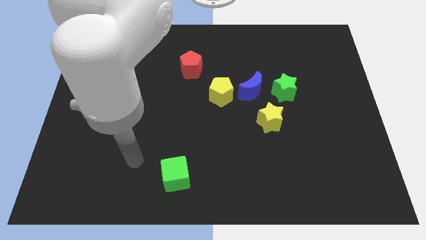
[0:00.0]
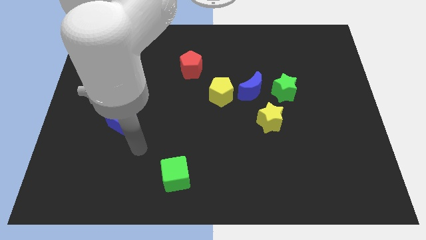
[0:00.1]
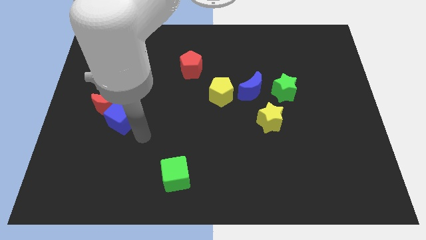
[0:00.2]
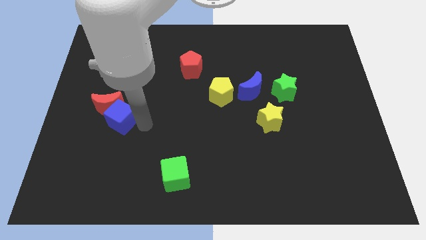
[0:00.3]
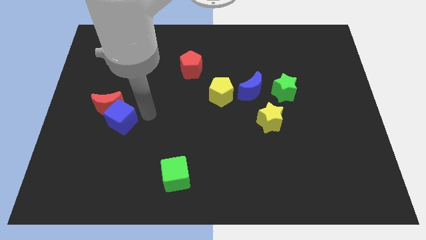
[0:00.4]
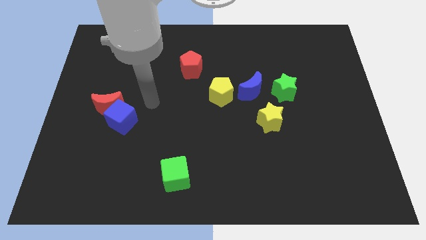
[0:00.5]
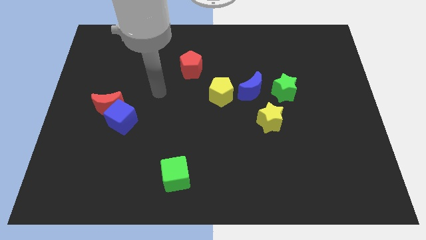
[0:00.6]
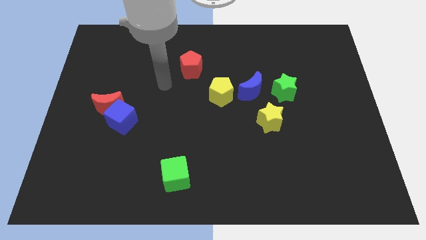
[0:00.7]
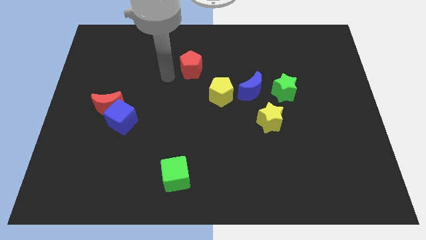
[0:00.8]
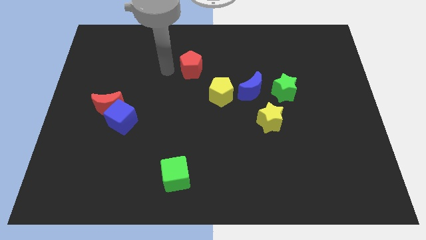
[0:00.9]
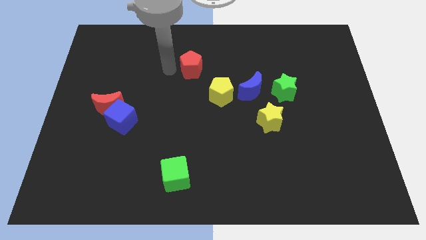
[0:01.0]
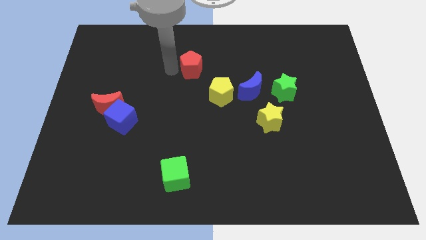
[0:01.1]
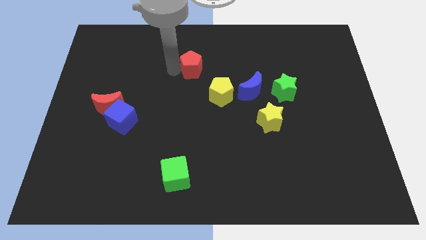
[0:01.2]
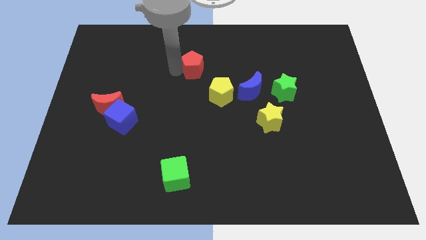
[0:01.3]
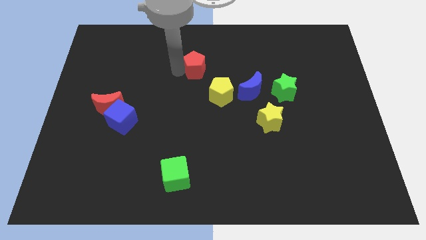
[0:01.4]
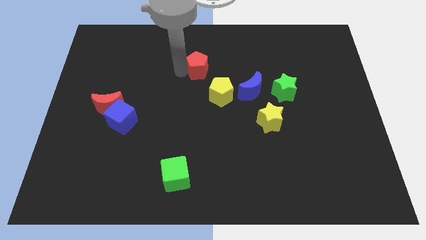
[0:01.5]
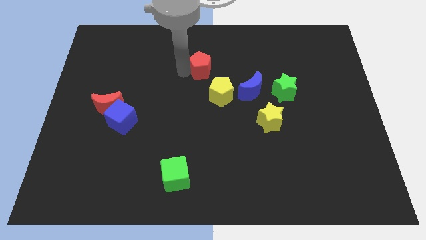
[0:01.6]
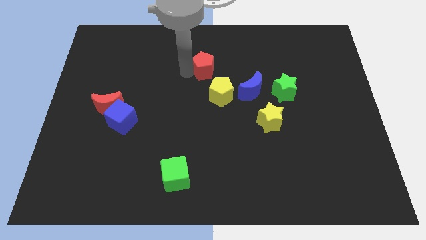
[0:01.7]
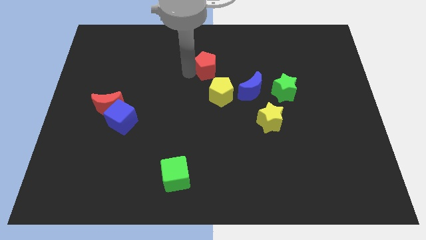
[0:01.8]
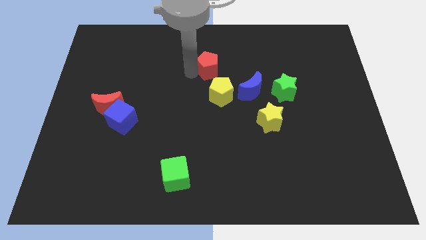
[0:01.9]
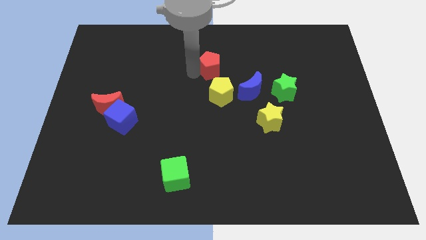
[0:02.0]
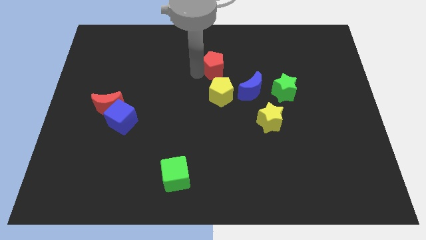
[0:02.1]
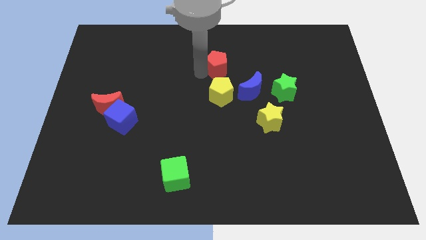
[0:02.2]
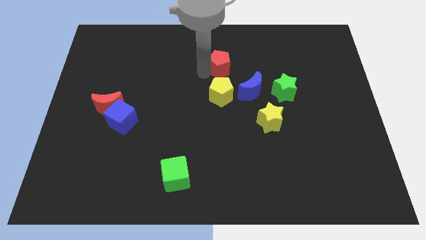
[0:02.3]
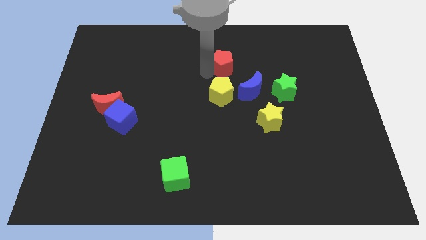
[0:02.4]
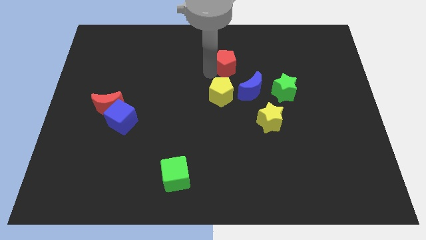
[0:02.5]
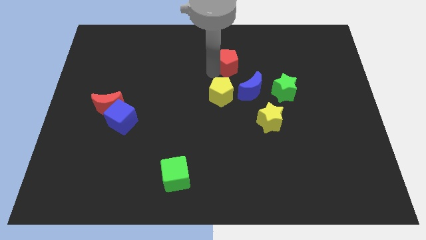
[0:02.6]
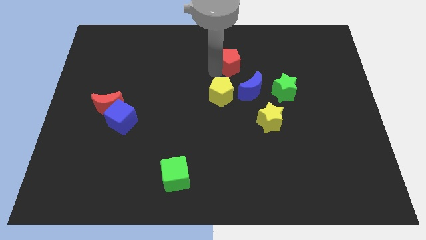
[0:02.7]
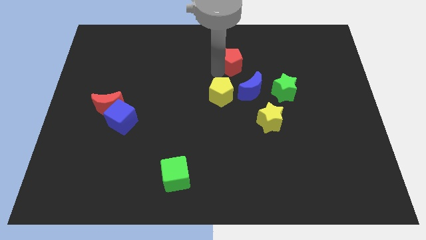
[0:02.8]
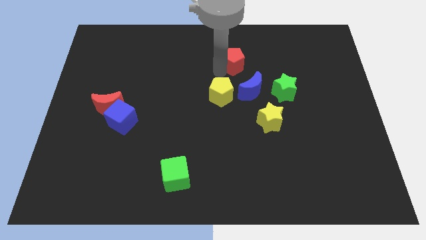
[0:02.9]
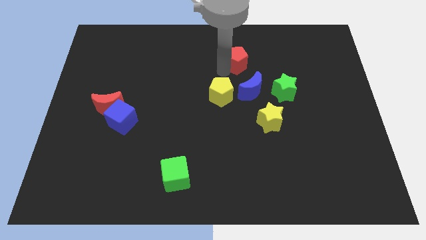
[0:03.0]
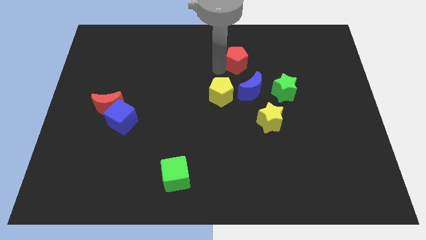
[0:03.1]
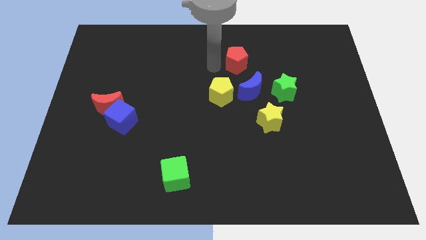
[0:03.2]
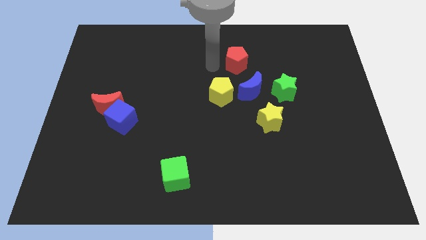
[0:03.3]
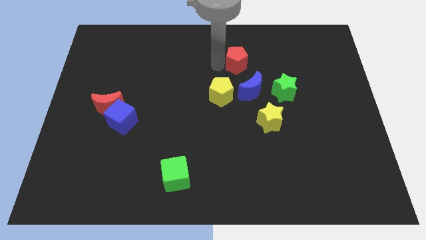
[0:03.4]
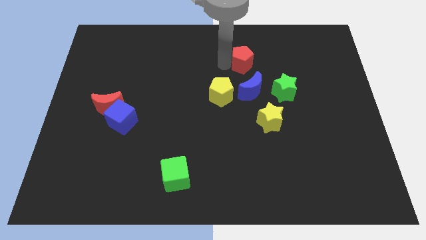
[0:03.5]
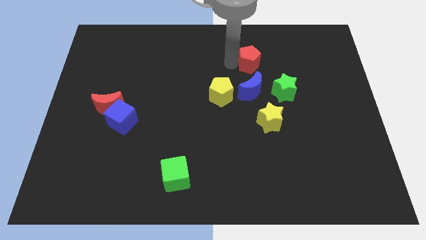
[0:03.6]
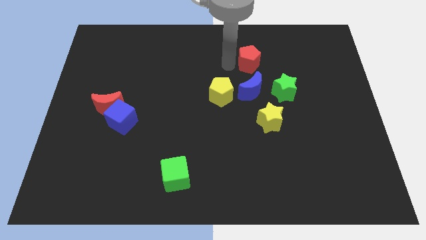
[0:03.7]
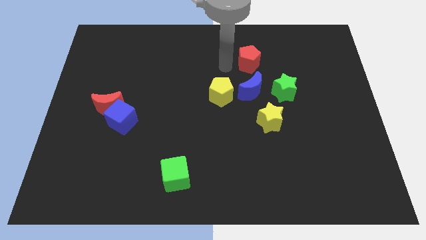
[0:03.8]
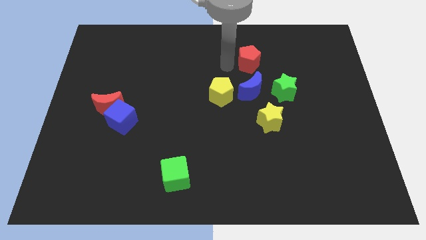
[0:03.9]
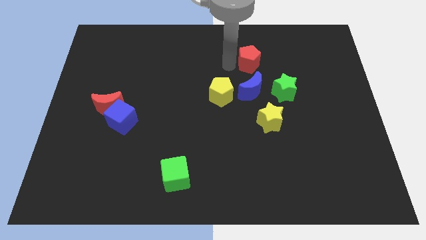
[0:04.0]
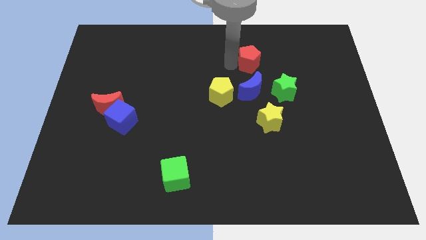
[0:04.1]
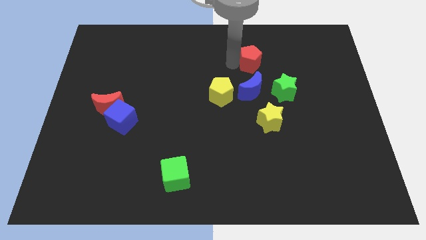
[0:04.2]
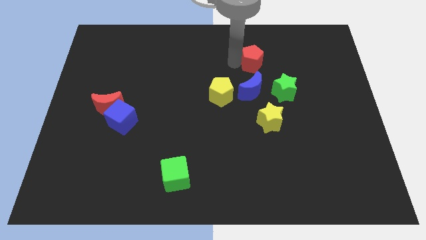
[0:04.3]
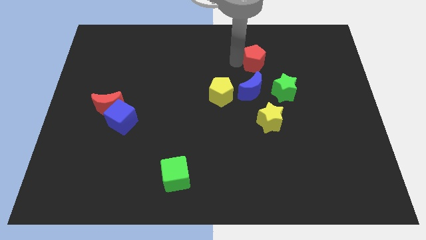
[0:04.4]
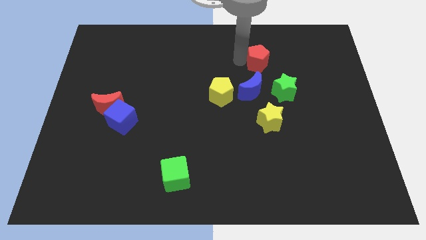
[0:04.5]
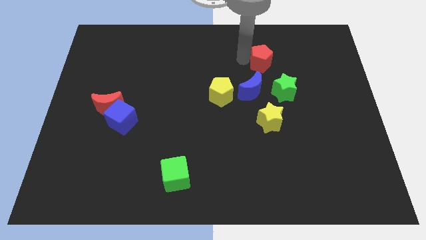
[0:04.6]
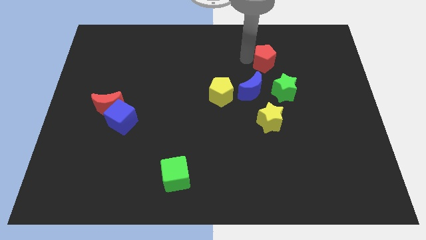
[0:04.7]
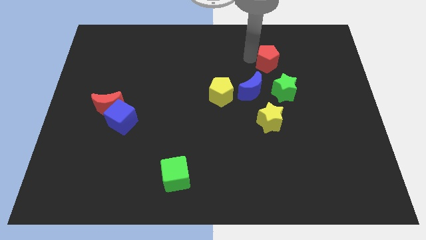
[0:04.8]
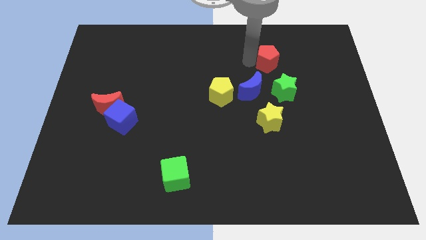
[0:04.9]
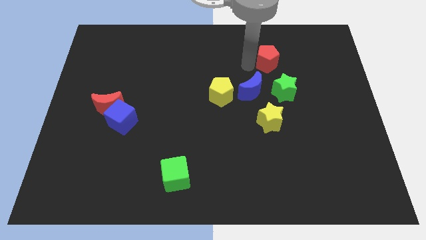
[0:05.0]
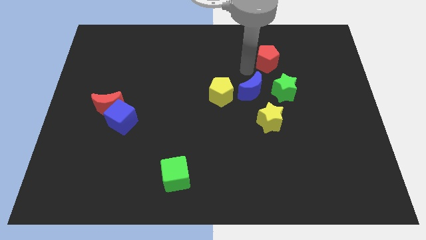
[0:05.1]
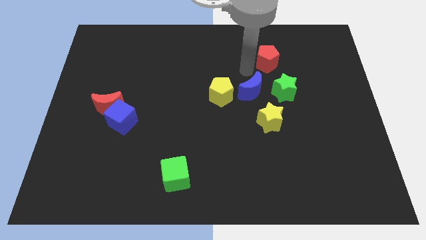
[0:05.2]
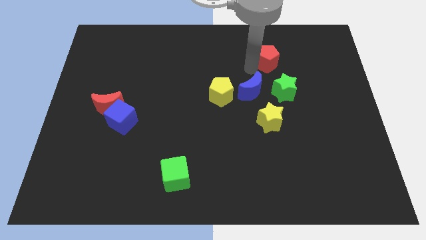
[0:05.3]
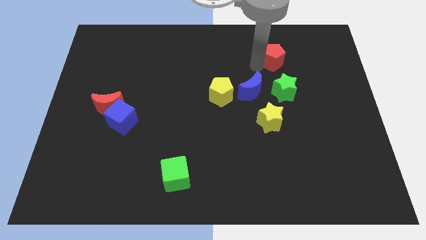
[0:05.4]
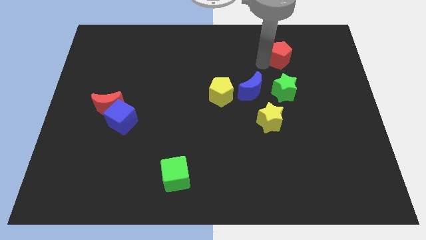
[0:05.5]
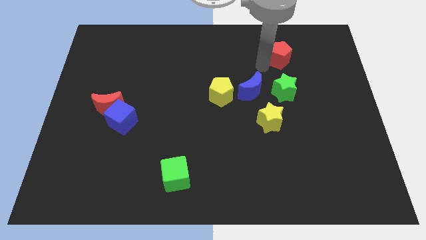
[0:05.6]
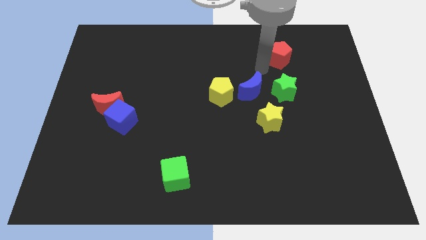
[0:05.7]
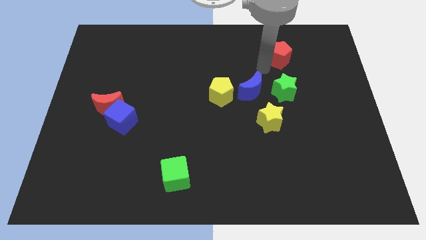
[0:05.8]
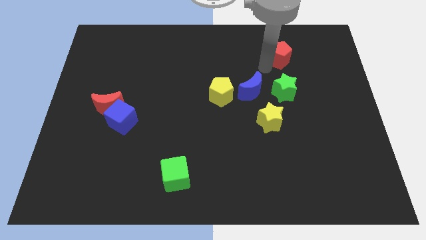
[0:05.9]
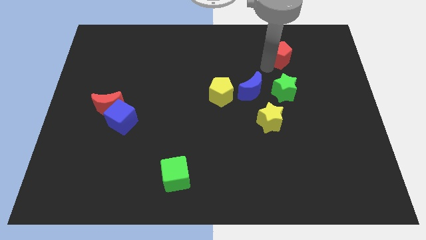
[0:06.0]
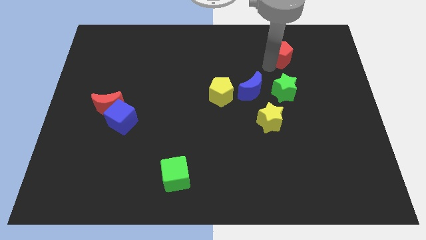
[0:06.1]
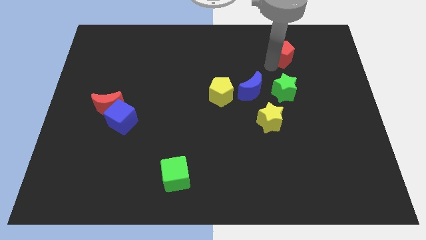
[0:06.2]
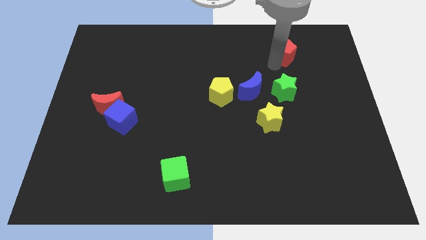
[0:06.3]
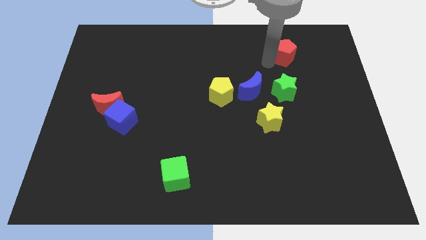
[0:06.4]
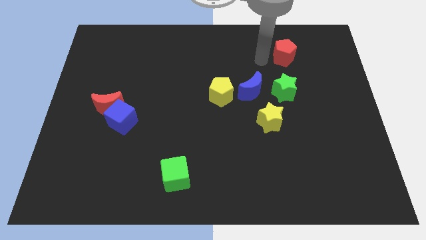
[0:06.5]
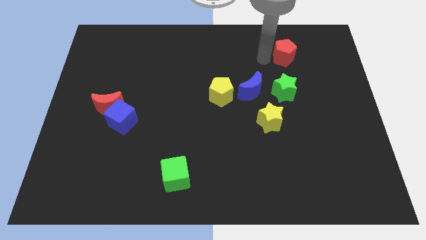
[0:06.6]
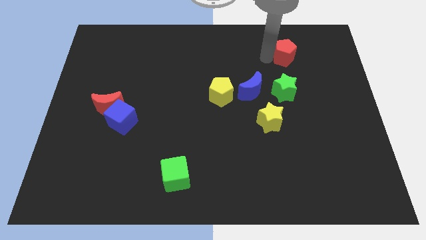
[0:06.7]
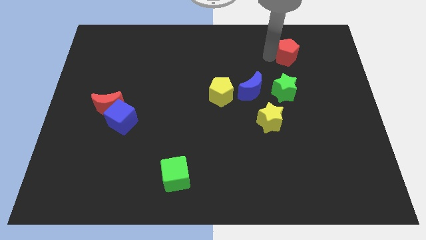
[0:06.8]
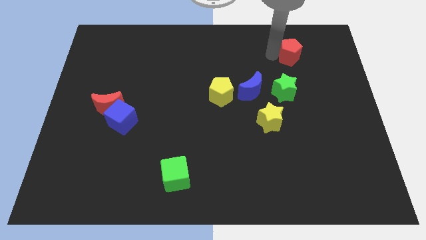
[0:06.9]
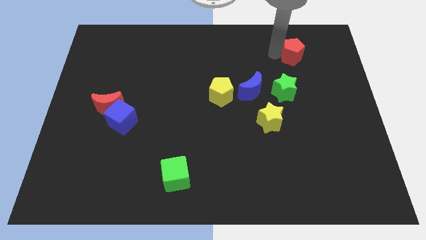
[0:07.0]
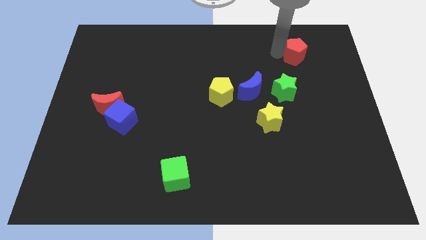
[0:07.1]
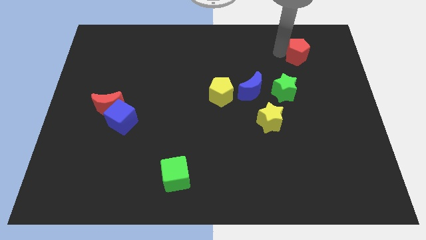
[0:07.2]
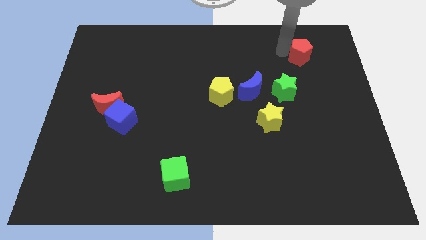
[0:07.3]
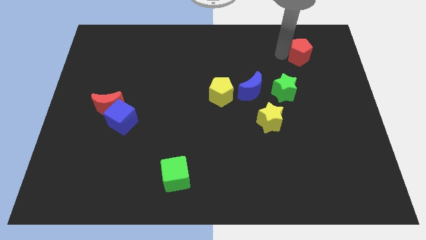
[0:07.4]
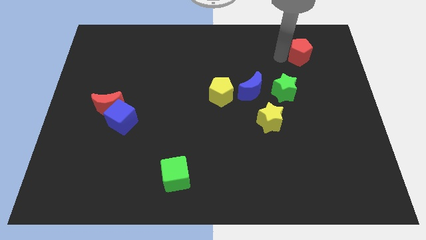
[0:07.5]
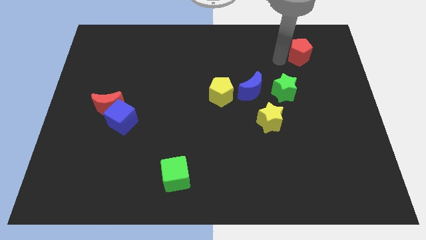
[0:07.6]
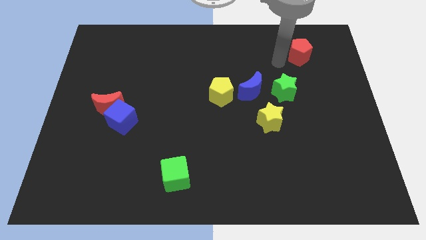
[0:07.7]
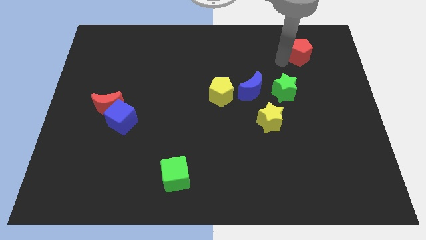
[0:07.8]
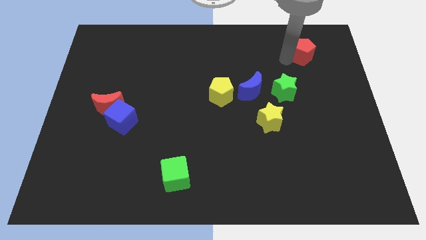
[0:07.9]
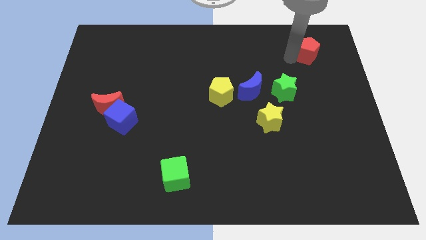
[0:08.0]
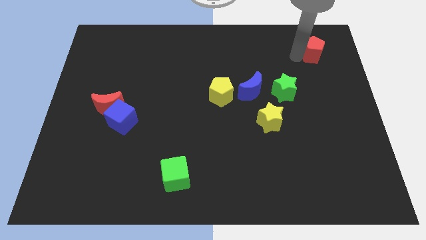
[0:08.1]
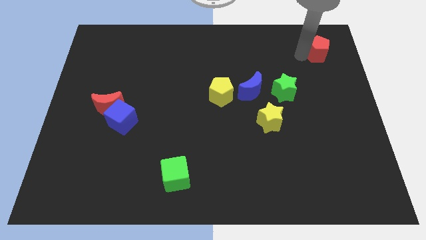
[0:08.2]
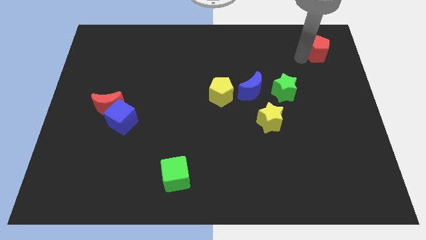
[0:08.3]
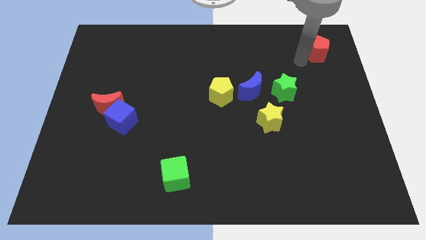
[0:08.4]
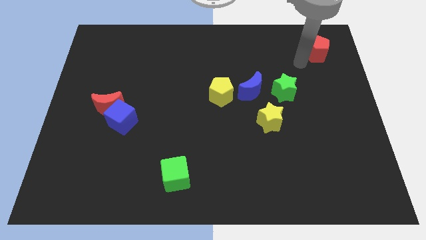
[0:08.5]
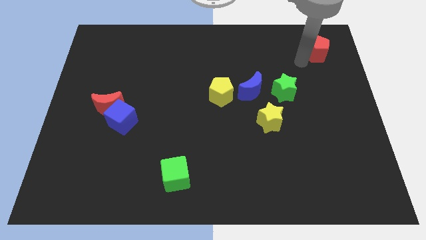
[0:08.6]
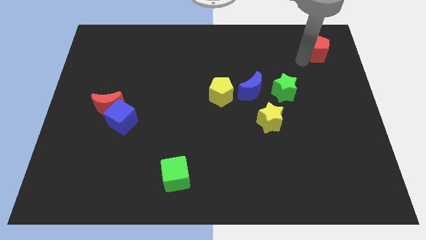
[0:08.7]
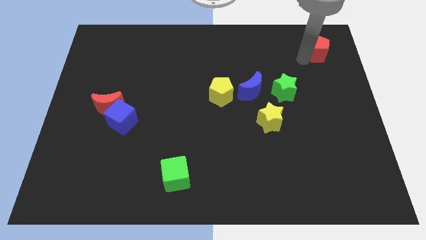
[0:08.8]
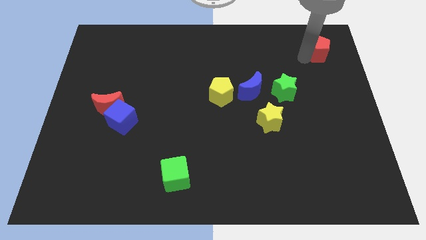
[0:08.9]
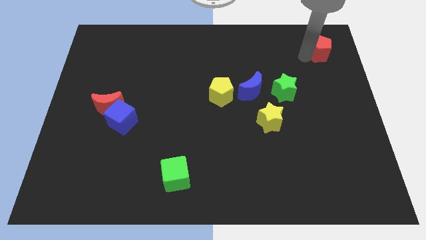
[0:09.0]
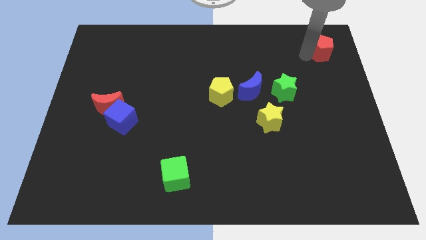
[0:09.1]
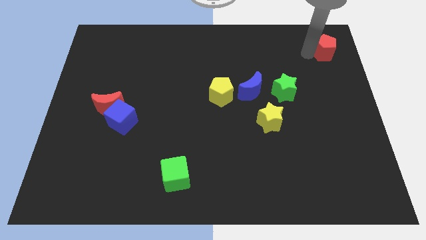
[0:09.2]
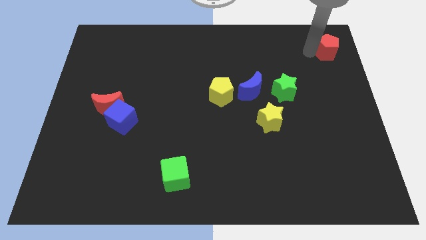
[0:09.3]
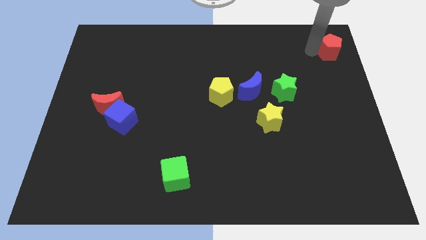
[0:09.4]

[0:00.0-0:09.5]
put the red pentagon to the upper right corner
